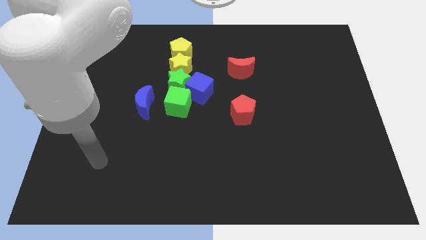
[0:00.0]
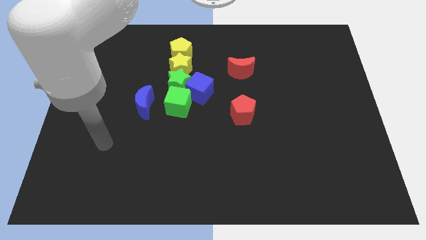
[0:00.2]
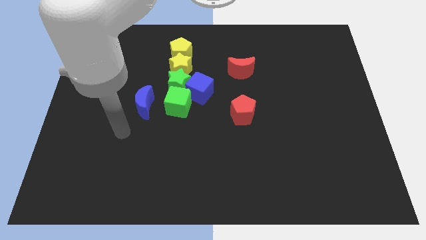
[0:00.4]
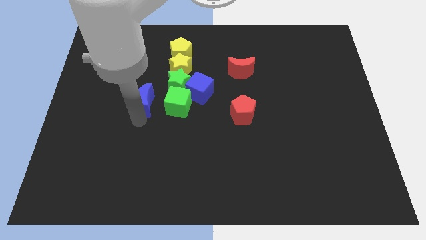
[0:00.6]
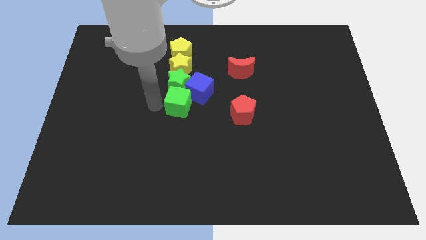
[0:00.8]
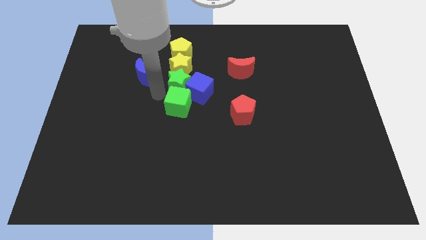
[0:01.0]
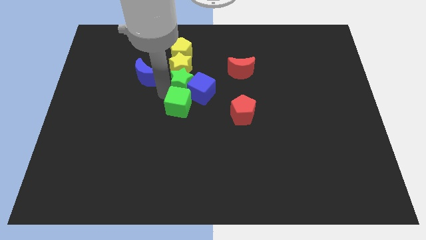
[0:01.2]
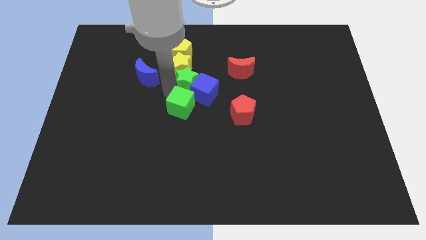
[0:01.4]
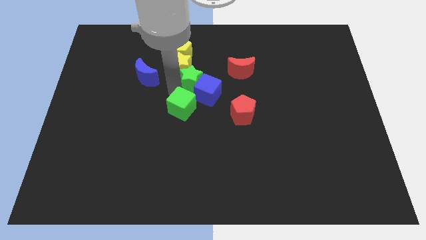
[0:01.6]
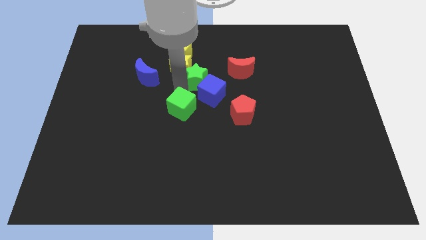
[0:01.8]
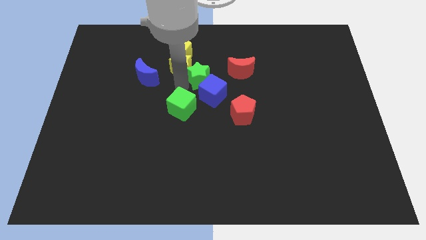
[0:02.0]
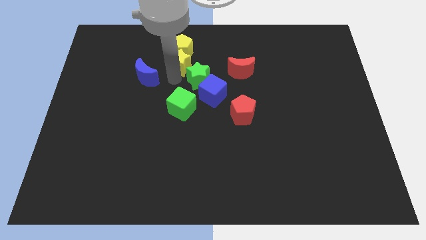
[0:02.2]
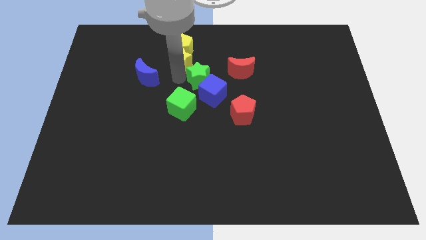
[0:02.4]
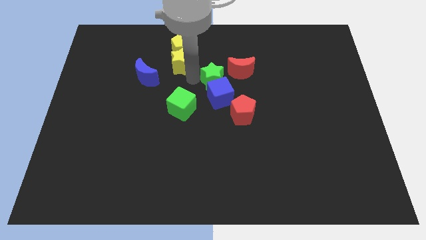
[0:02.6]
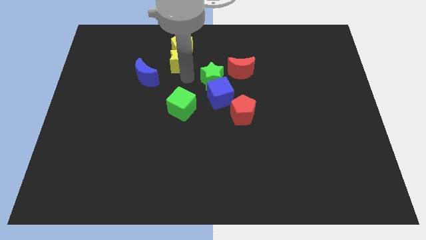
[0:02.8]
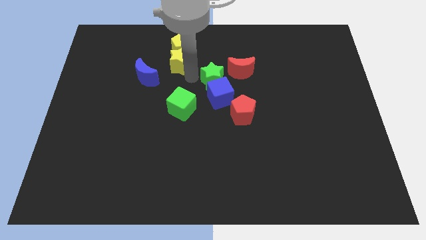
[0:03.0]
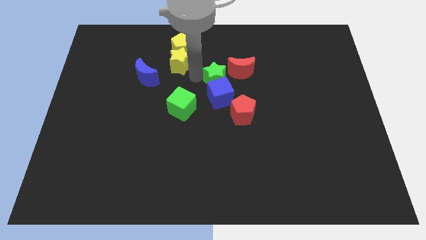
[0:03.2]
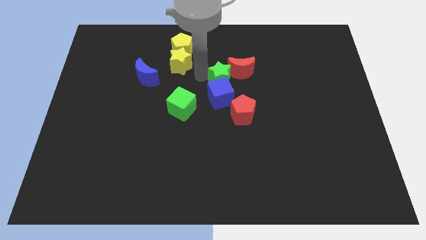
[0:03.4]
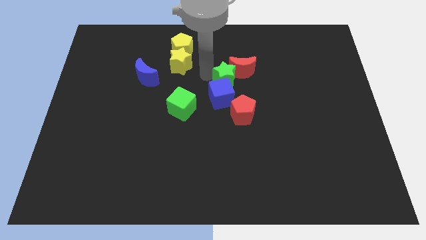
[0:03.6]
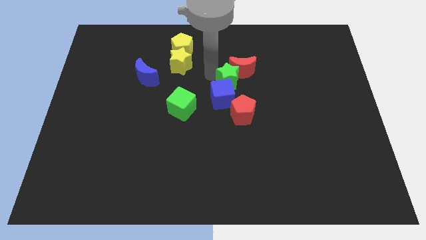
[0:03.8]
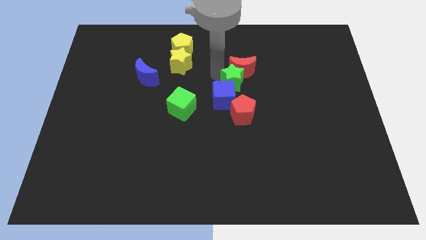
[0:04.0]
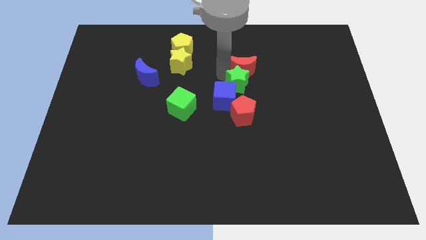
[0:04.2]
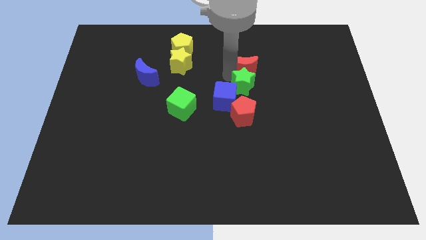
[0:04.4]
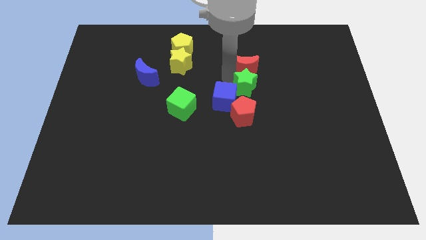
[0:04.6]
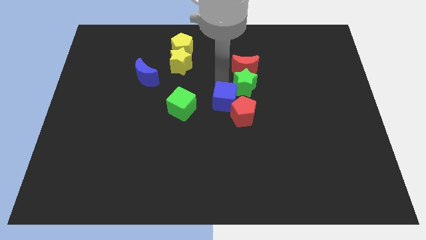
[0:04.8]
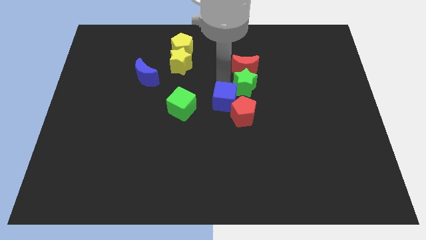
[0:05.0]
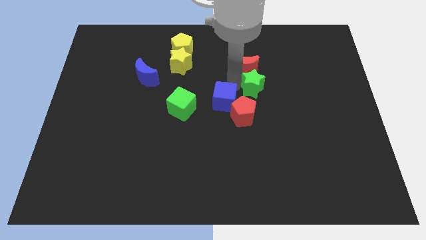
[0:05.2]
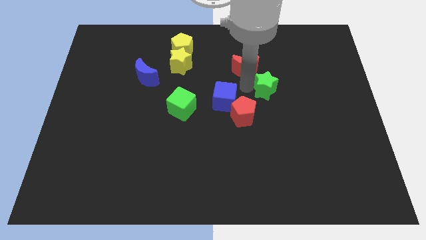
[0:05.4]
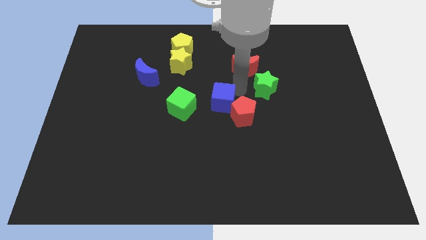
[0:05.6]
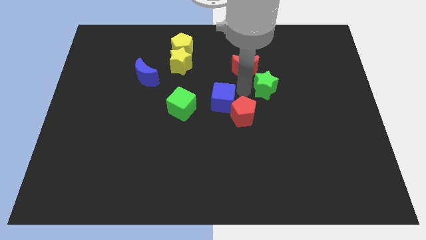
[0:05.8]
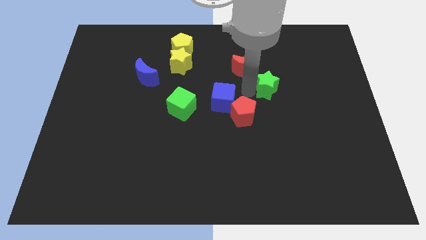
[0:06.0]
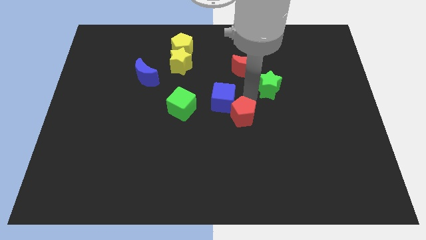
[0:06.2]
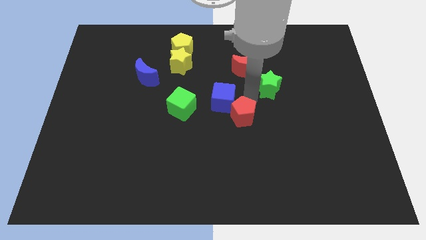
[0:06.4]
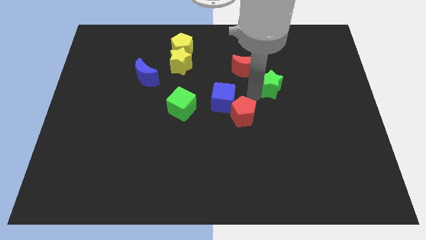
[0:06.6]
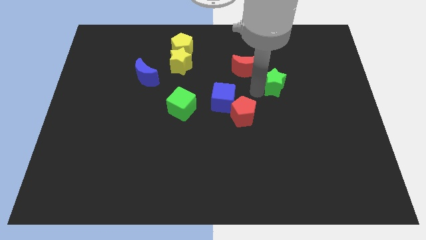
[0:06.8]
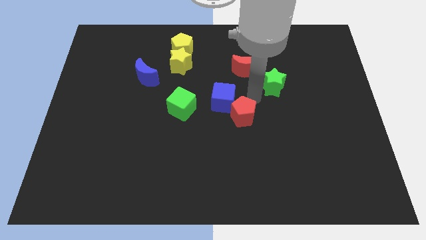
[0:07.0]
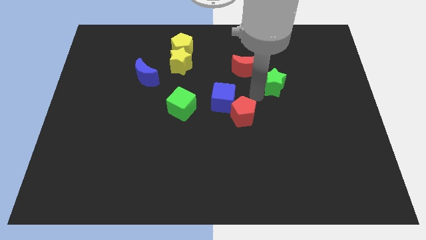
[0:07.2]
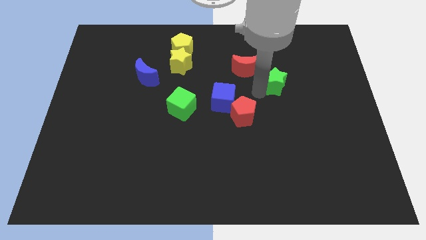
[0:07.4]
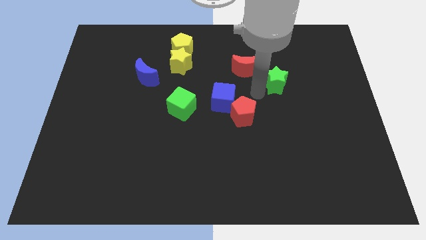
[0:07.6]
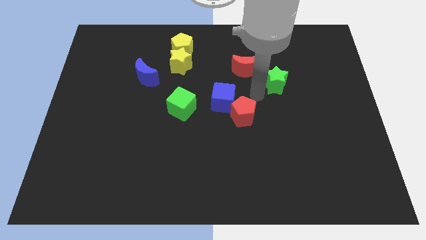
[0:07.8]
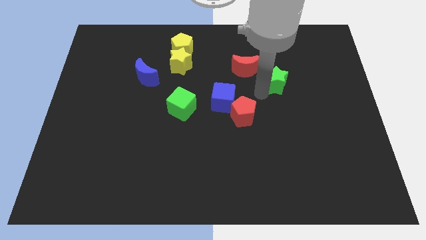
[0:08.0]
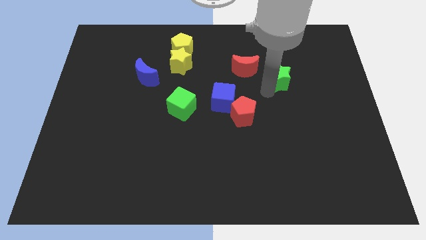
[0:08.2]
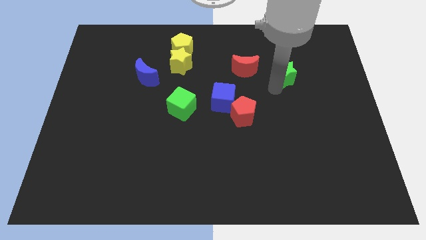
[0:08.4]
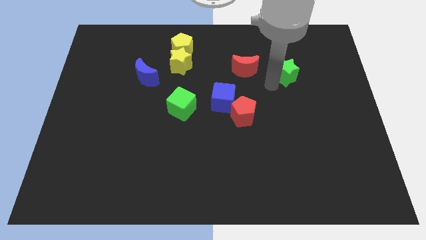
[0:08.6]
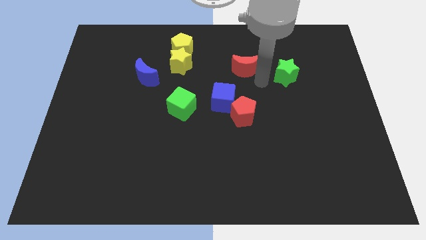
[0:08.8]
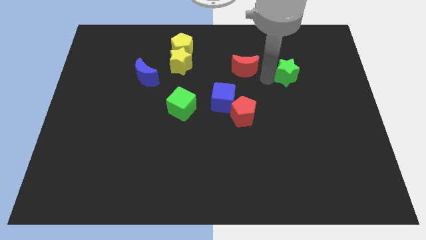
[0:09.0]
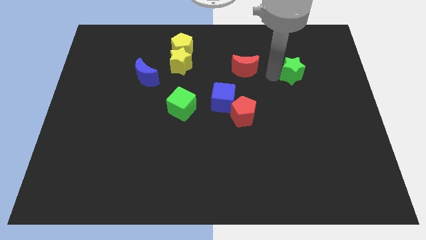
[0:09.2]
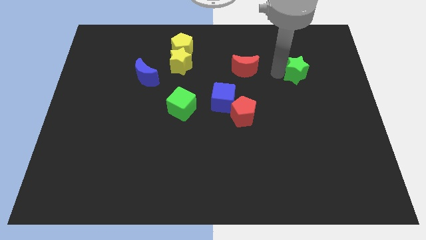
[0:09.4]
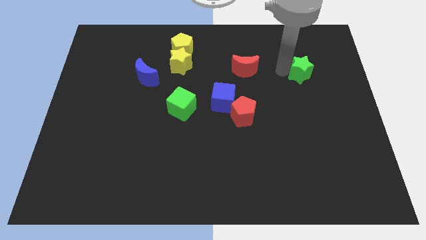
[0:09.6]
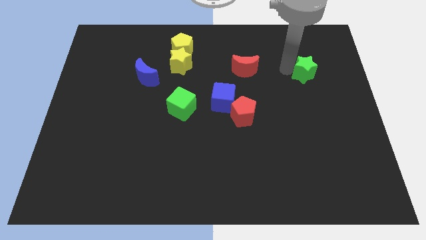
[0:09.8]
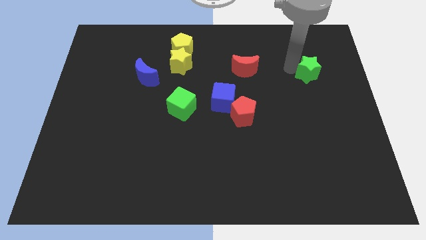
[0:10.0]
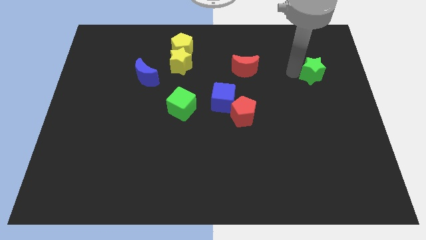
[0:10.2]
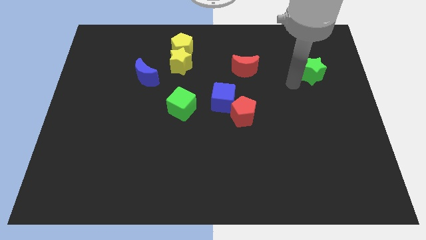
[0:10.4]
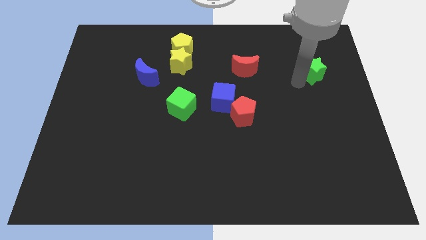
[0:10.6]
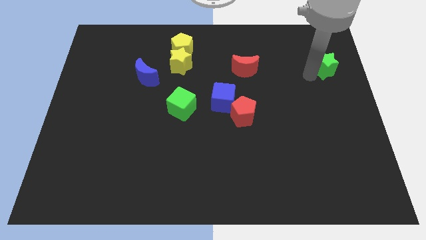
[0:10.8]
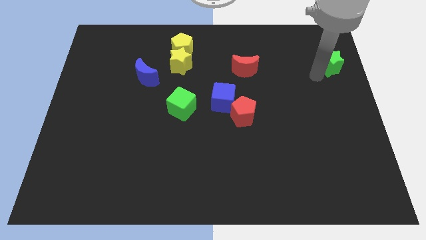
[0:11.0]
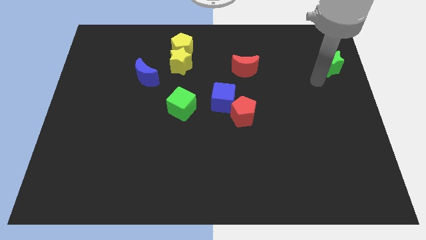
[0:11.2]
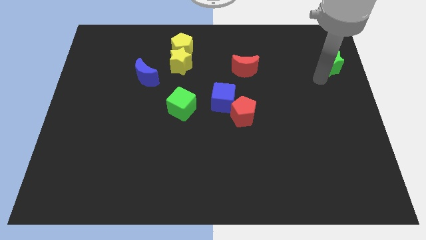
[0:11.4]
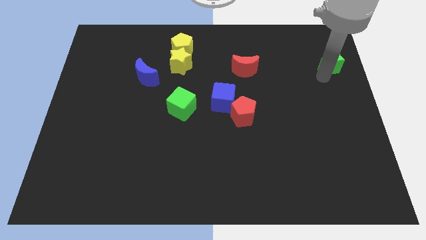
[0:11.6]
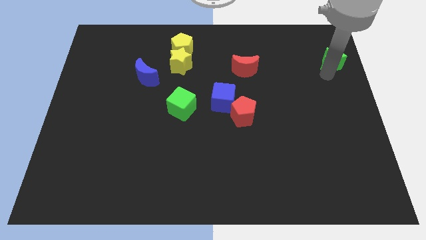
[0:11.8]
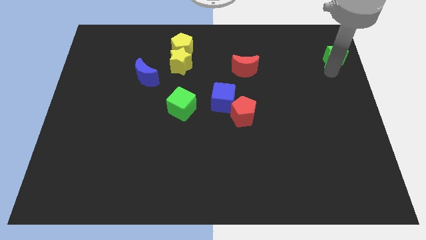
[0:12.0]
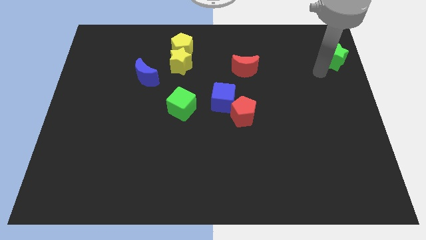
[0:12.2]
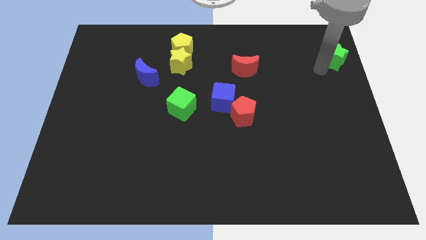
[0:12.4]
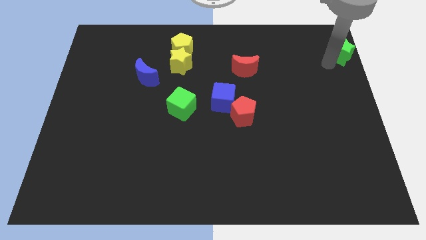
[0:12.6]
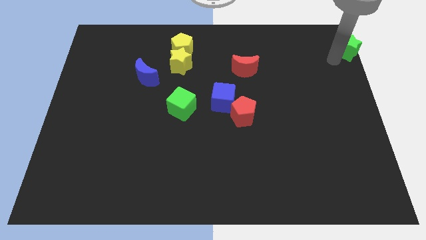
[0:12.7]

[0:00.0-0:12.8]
put the green star to the top right corner
